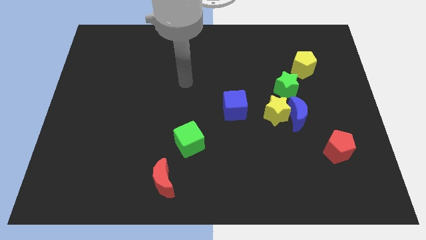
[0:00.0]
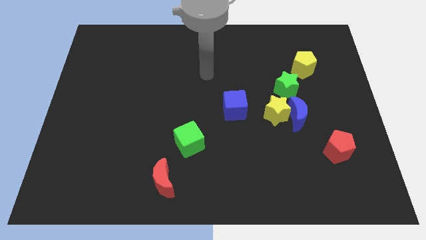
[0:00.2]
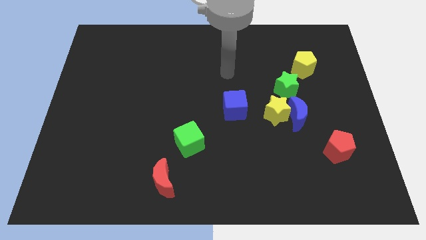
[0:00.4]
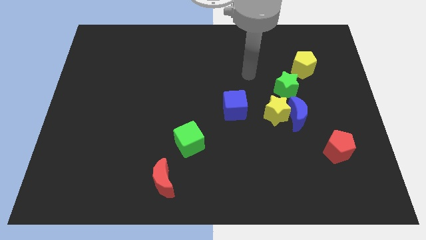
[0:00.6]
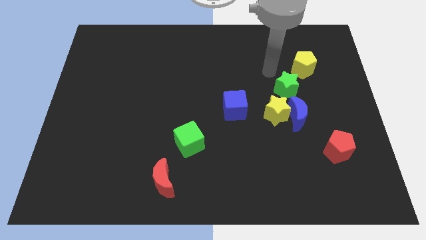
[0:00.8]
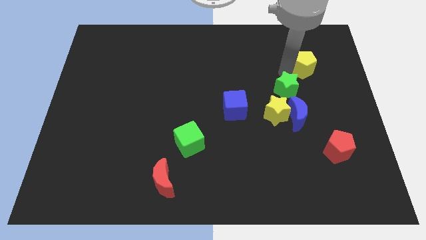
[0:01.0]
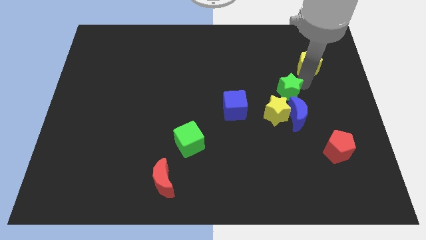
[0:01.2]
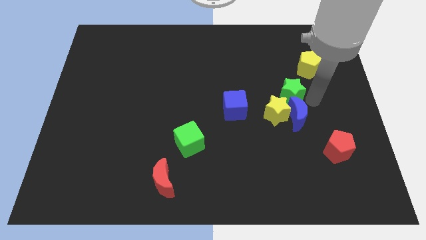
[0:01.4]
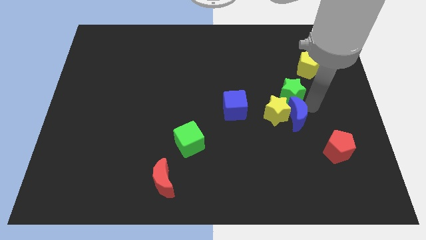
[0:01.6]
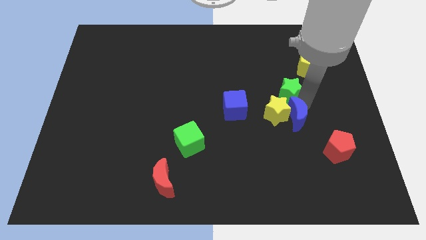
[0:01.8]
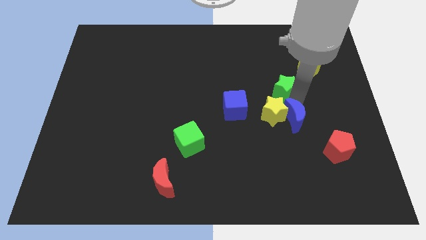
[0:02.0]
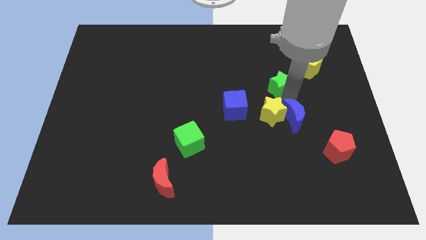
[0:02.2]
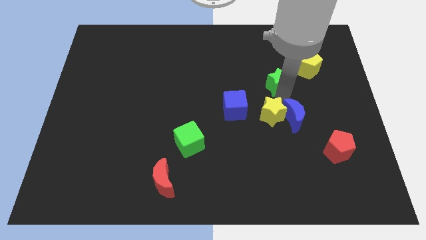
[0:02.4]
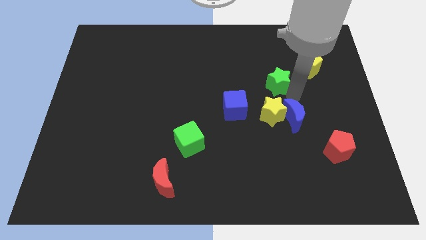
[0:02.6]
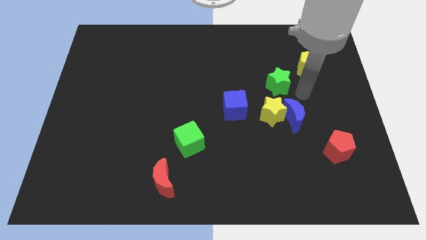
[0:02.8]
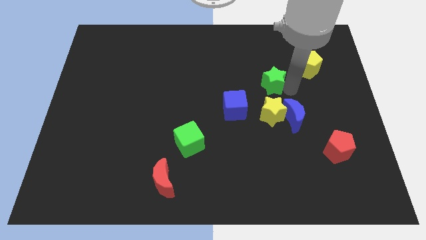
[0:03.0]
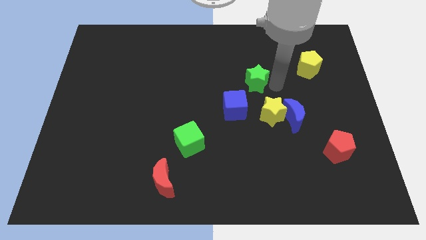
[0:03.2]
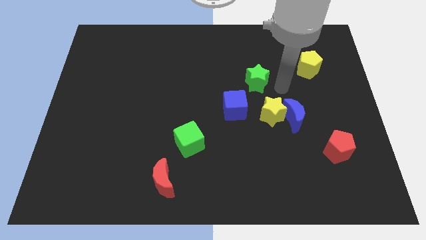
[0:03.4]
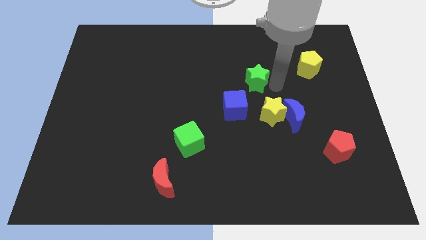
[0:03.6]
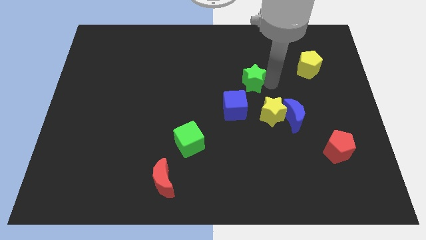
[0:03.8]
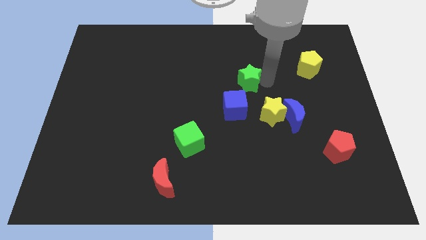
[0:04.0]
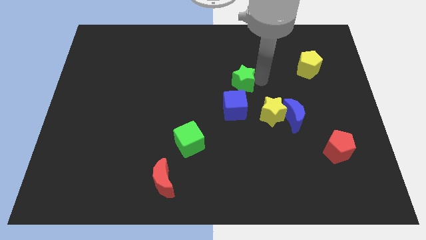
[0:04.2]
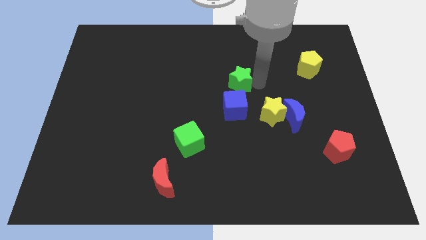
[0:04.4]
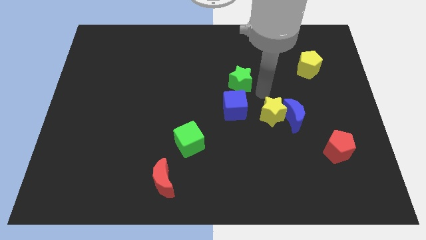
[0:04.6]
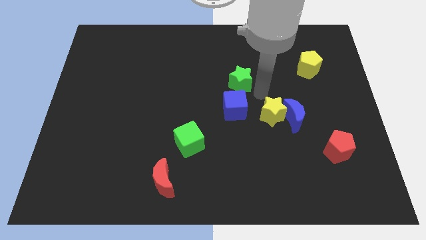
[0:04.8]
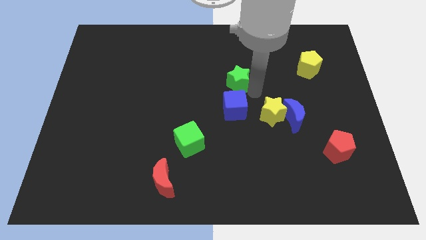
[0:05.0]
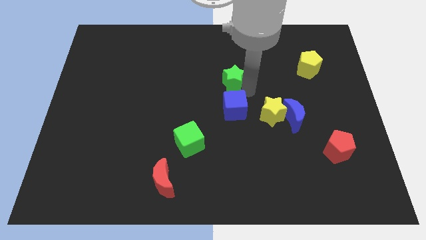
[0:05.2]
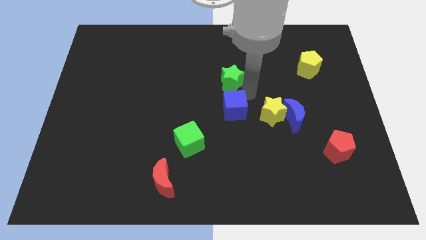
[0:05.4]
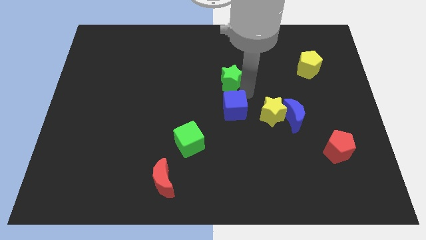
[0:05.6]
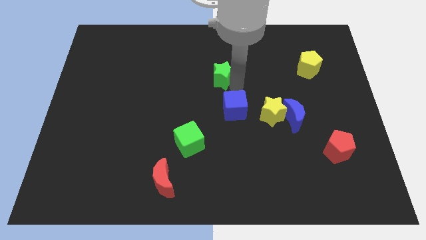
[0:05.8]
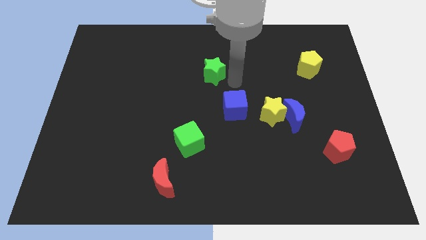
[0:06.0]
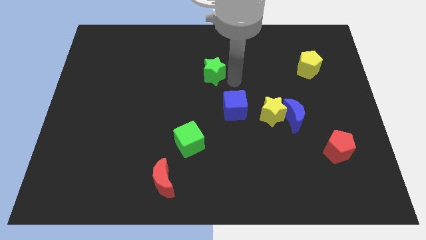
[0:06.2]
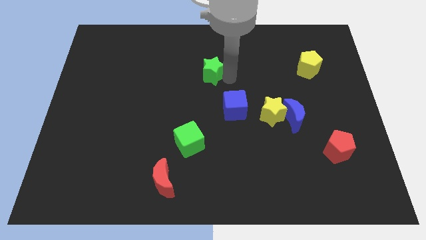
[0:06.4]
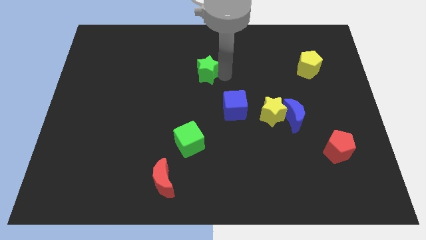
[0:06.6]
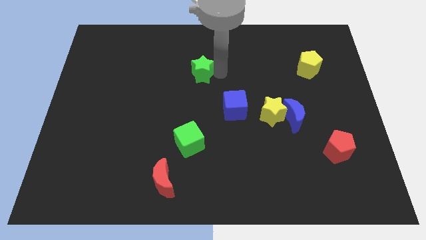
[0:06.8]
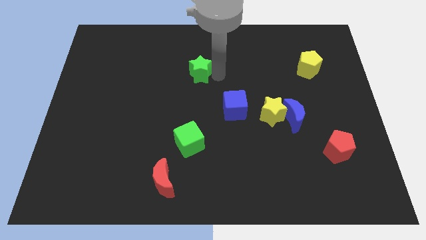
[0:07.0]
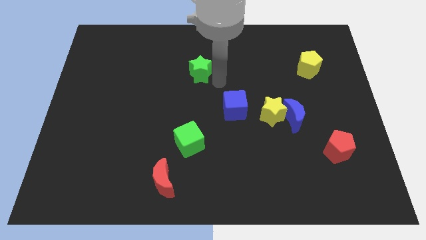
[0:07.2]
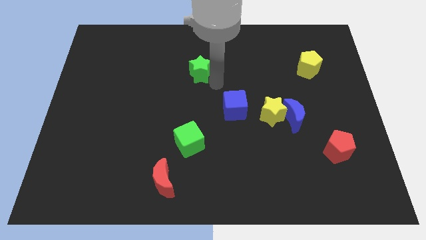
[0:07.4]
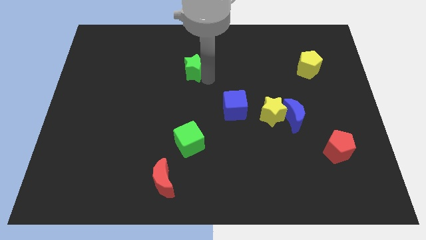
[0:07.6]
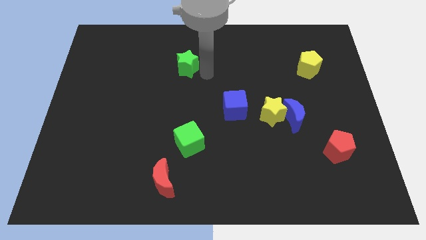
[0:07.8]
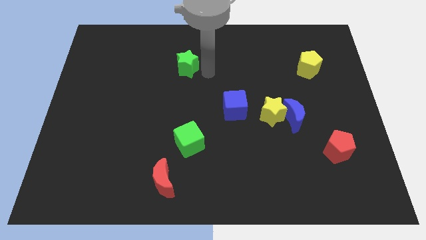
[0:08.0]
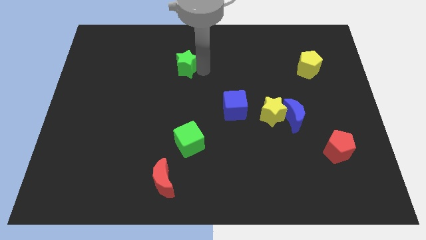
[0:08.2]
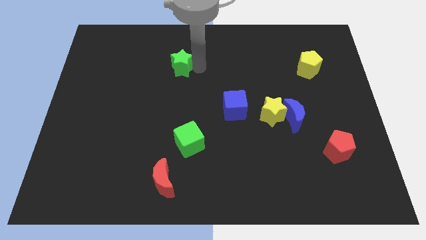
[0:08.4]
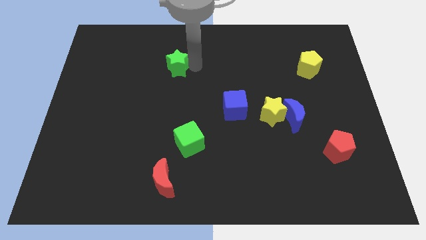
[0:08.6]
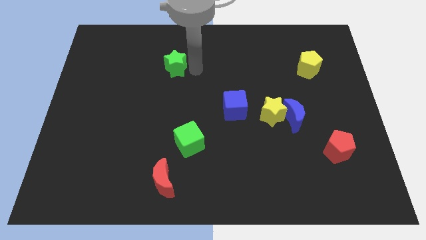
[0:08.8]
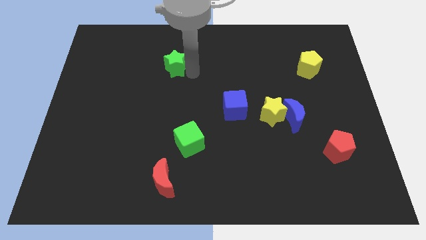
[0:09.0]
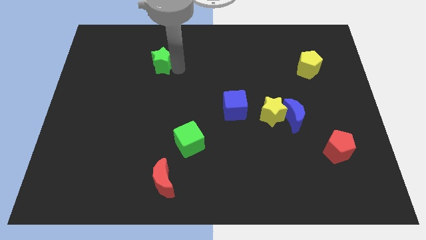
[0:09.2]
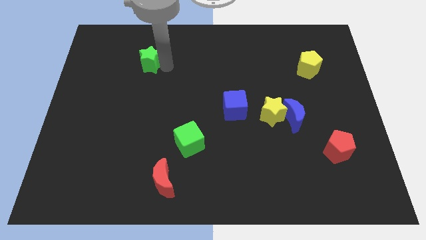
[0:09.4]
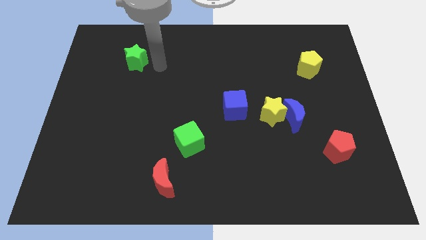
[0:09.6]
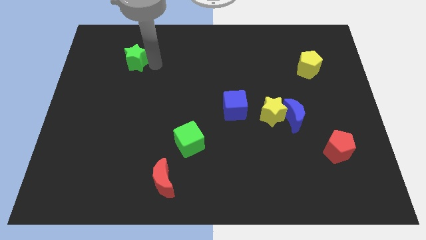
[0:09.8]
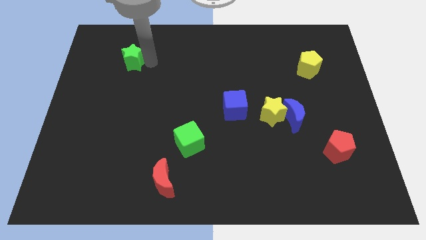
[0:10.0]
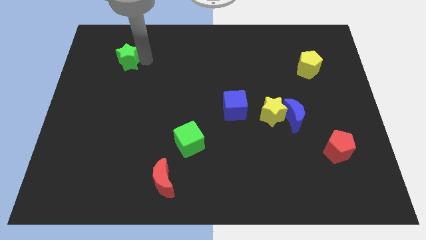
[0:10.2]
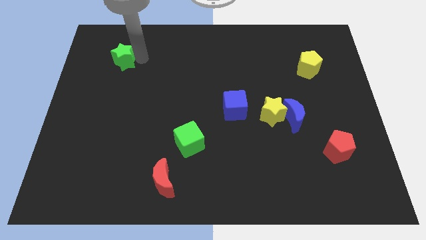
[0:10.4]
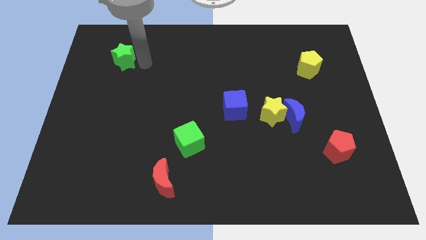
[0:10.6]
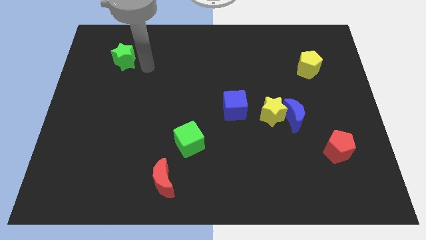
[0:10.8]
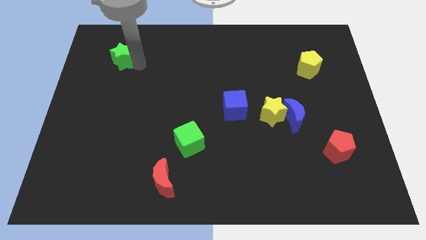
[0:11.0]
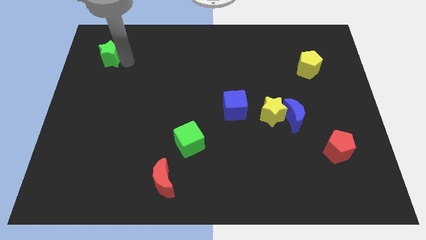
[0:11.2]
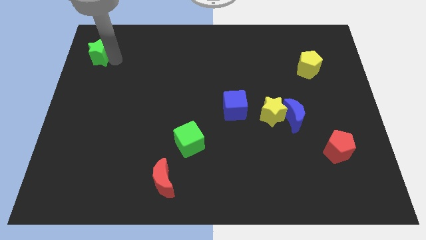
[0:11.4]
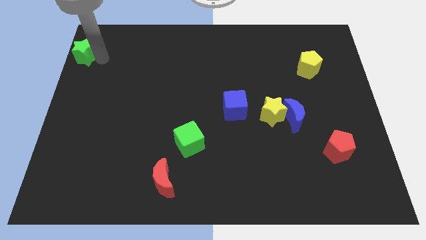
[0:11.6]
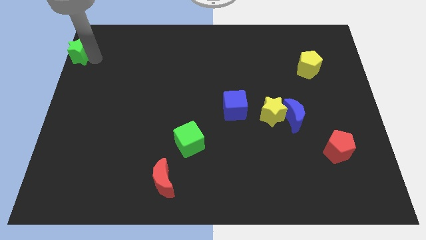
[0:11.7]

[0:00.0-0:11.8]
move the green star to the top left
